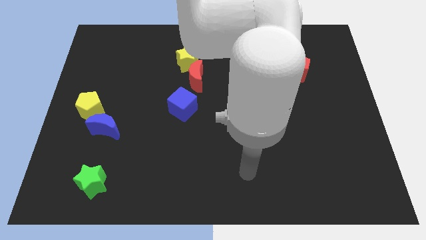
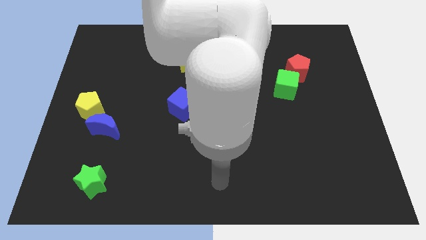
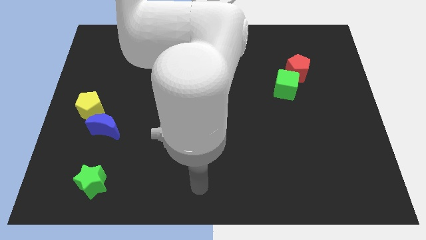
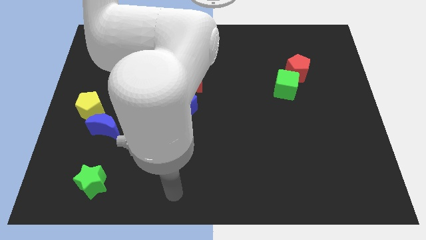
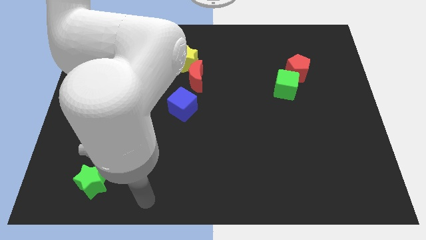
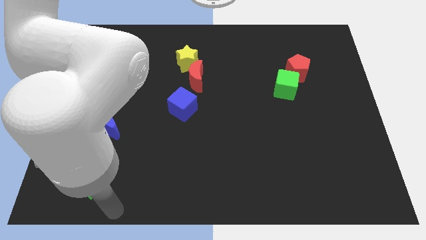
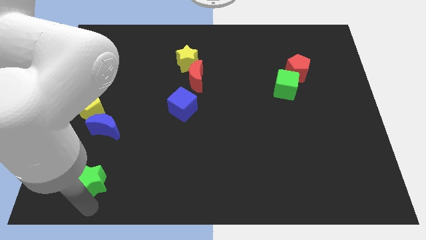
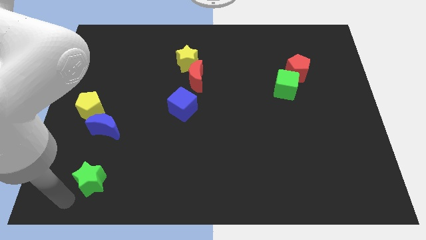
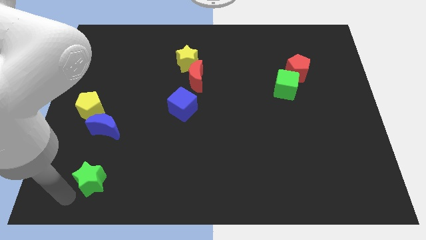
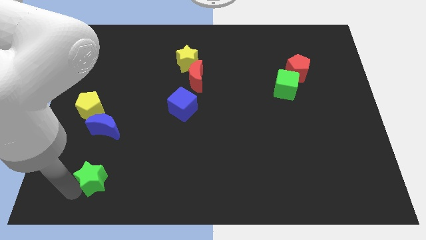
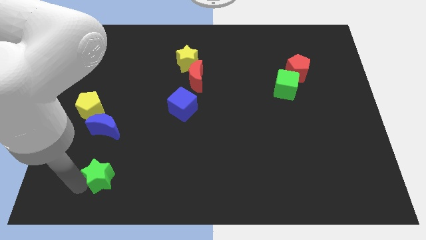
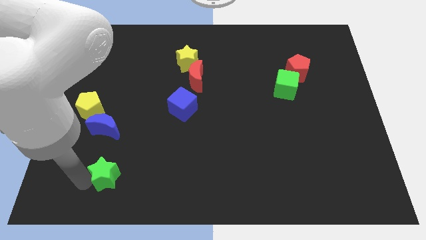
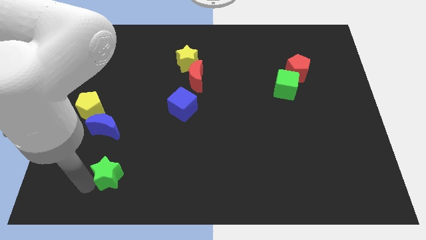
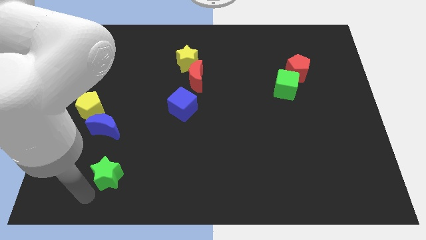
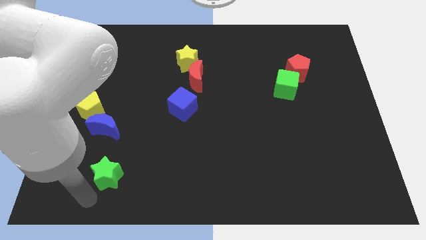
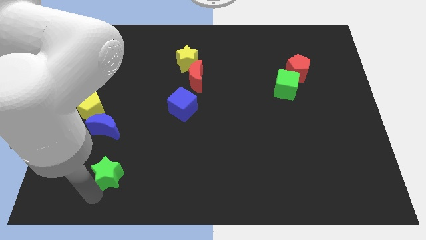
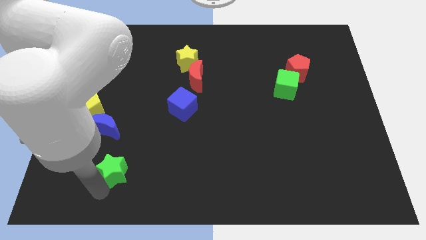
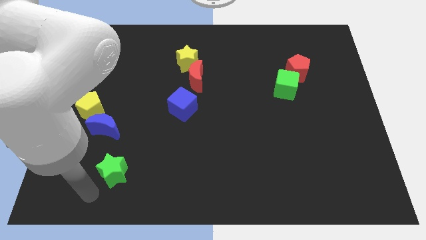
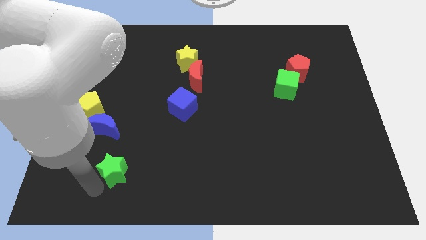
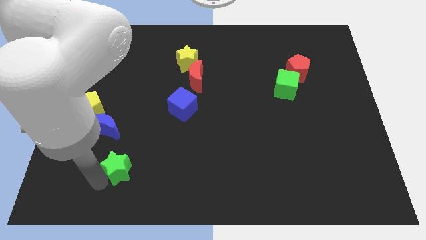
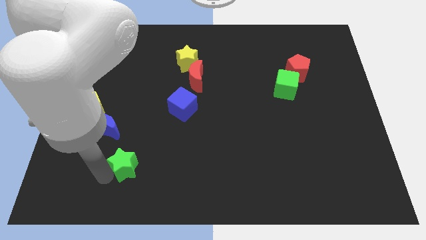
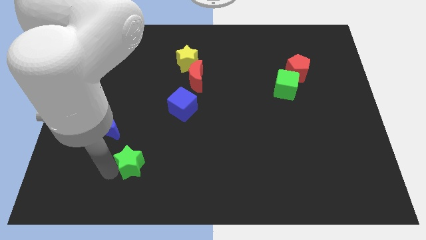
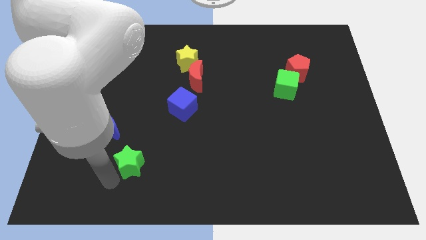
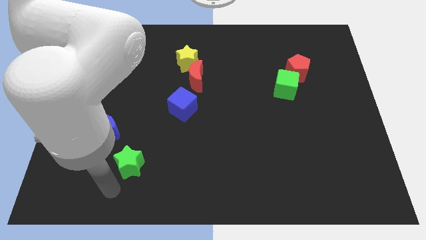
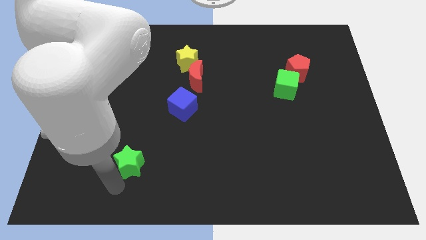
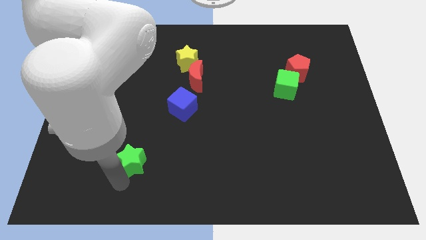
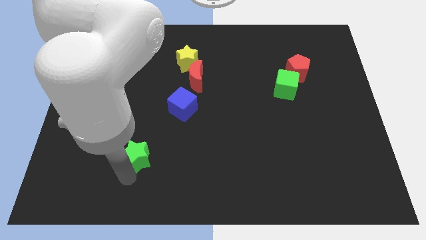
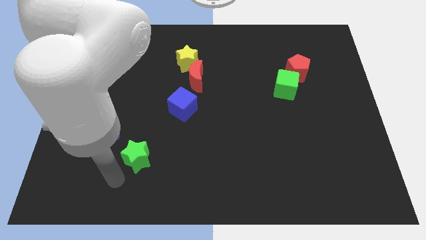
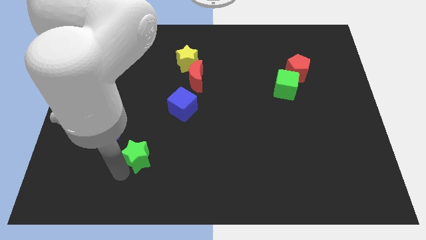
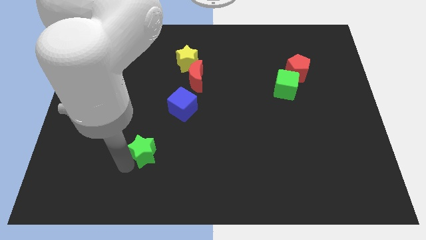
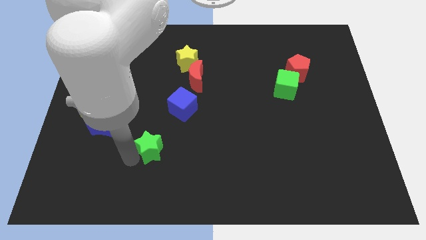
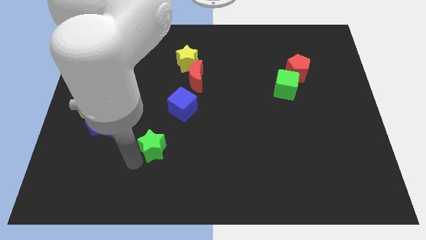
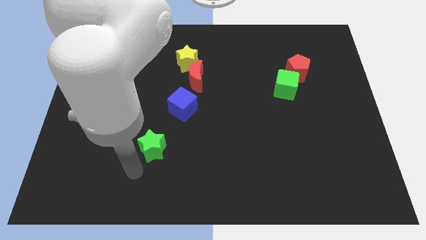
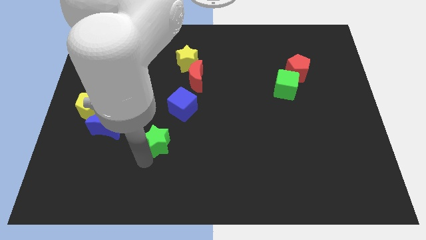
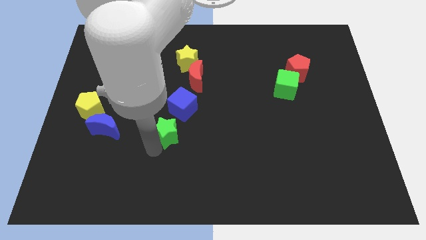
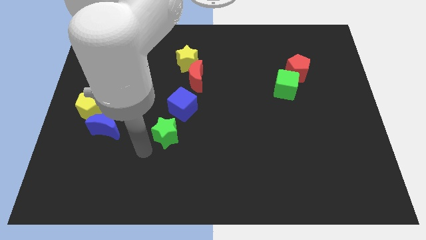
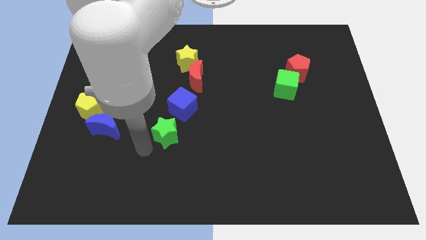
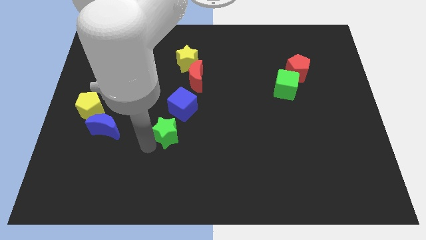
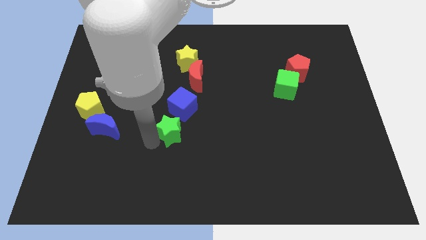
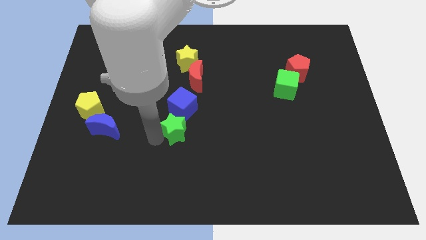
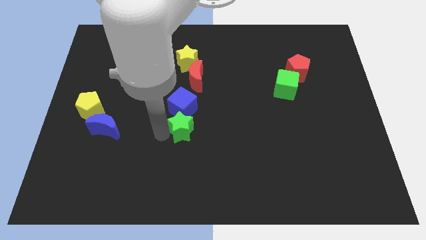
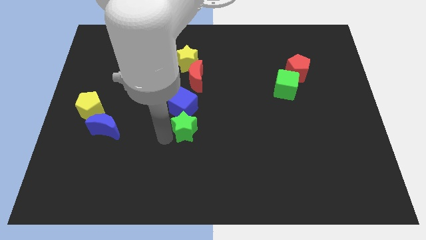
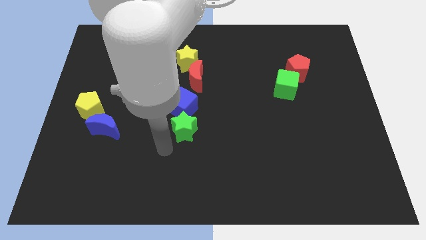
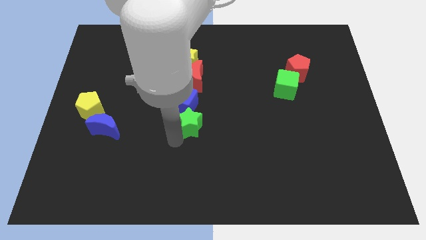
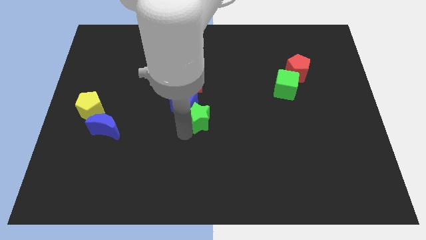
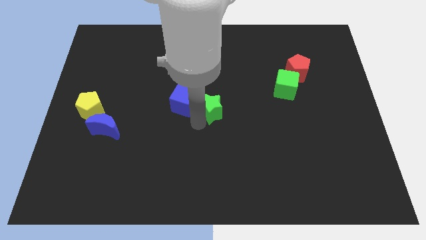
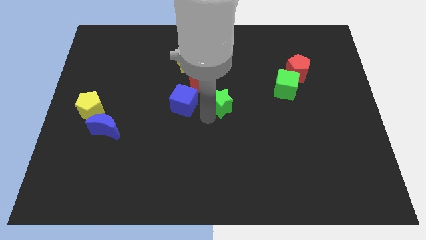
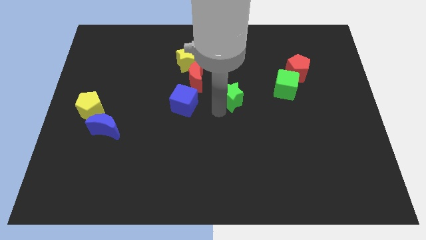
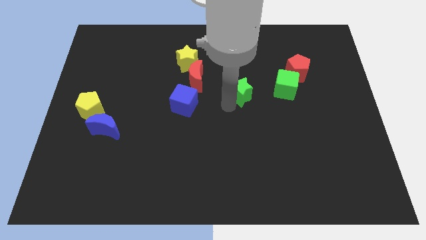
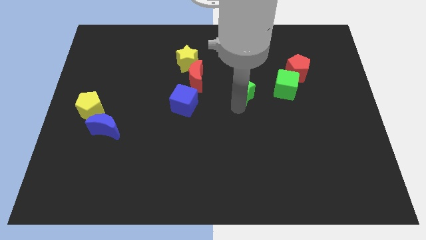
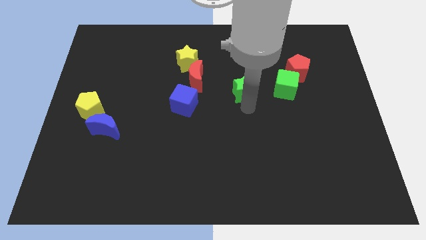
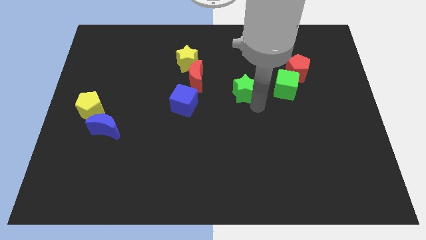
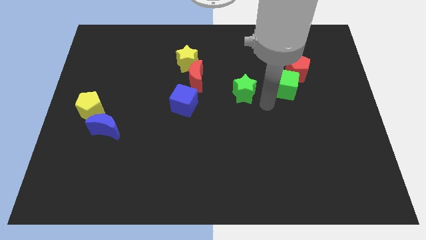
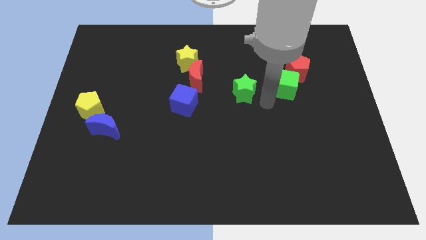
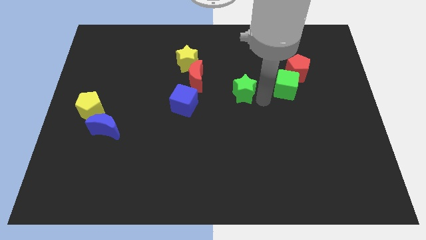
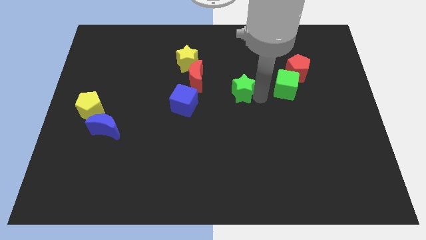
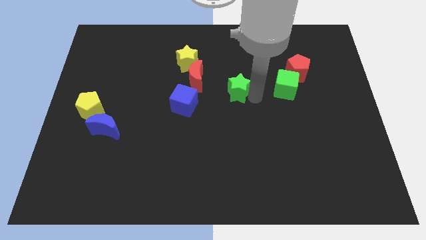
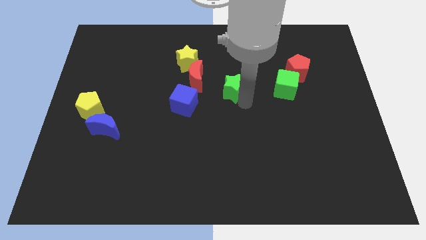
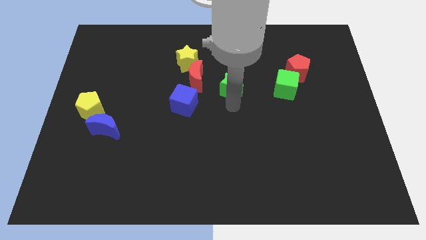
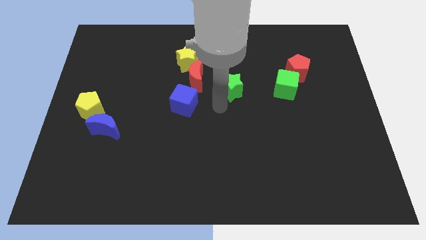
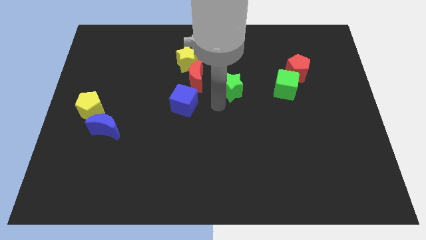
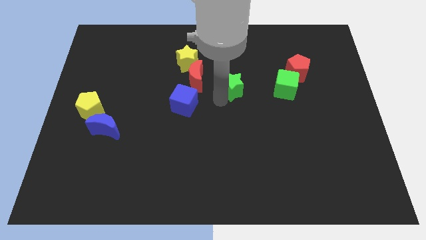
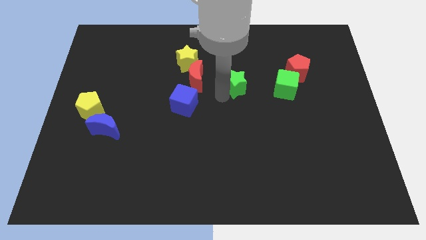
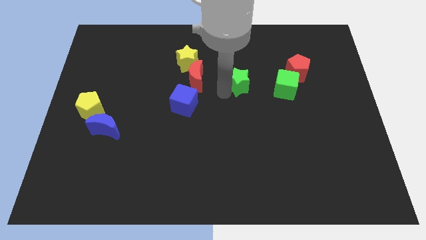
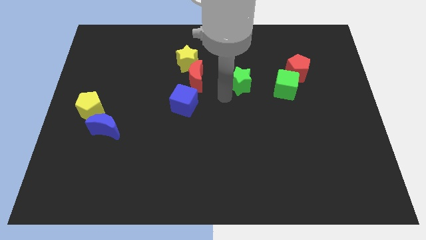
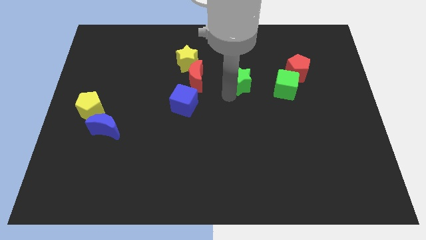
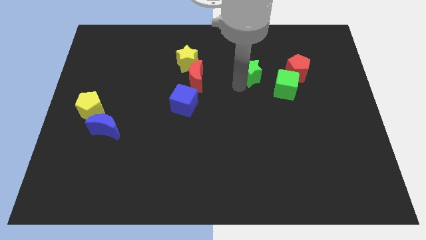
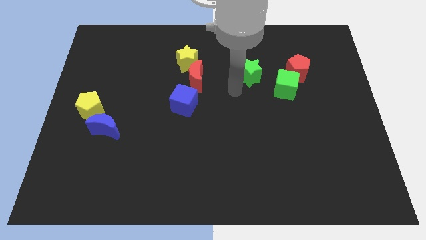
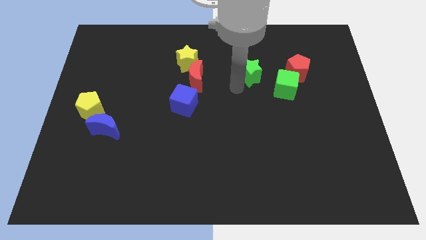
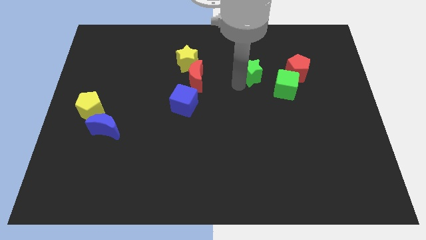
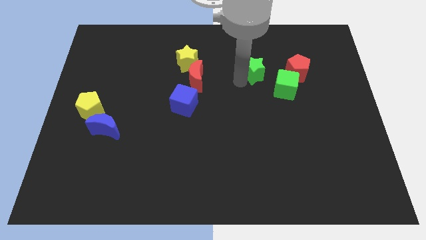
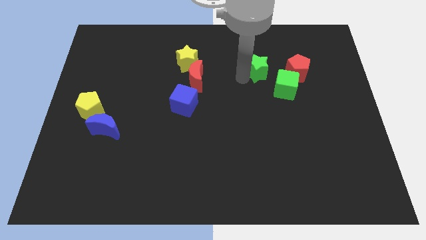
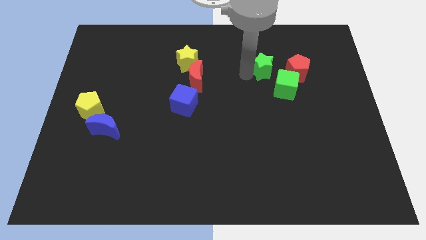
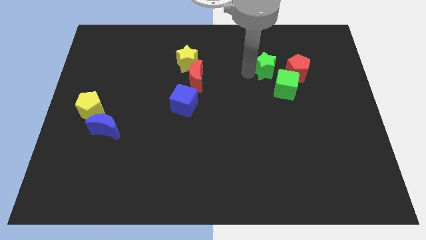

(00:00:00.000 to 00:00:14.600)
slide the green star diagonally up and to the left of the red pentagon
